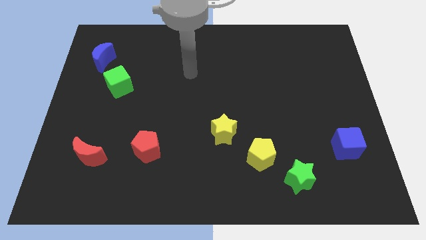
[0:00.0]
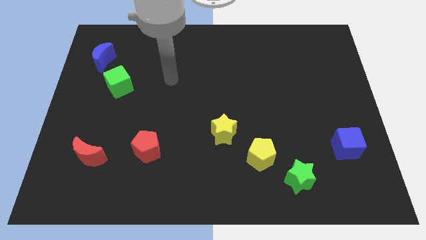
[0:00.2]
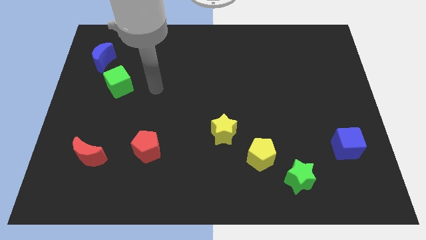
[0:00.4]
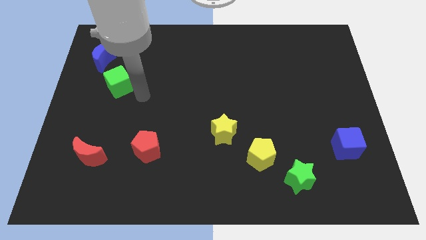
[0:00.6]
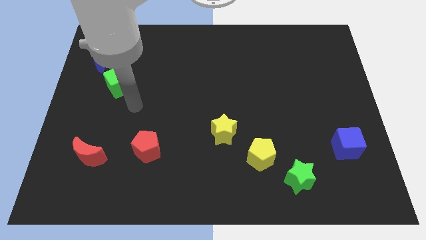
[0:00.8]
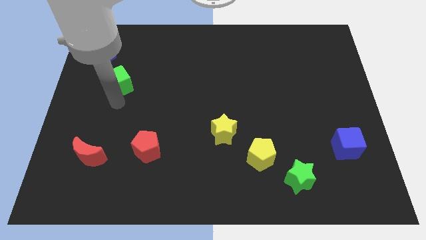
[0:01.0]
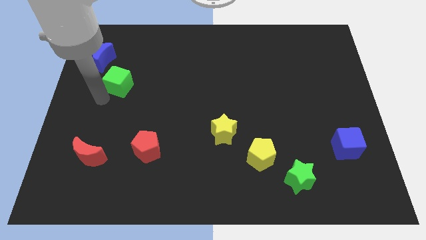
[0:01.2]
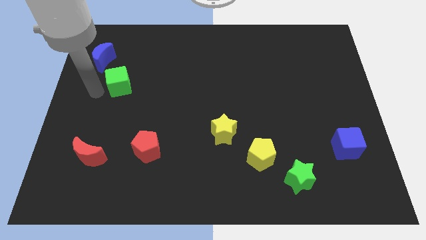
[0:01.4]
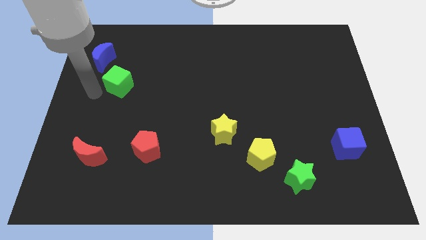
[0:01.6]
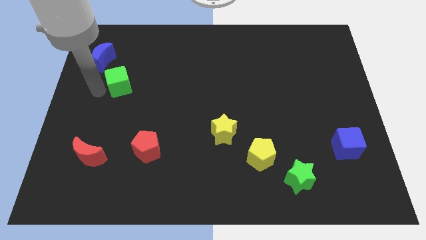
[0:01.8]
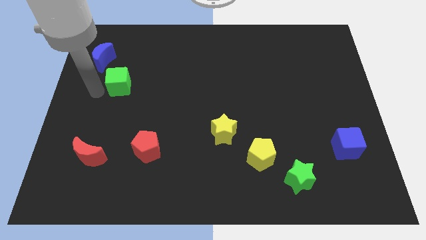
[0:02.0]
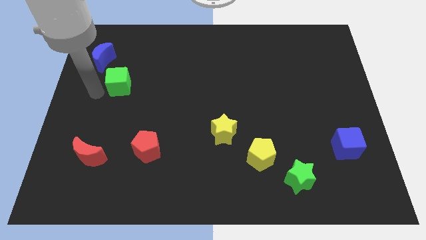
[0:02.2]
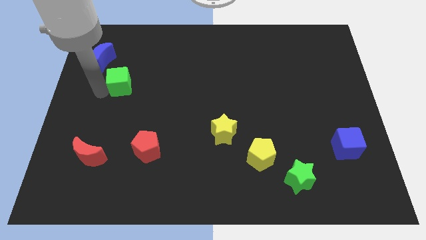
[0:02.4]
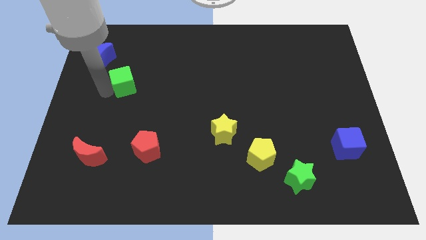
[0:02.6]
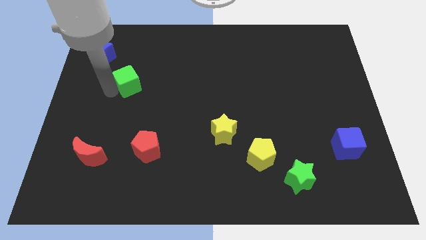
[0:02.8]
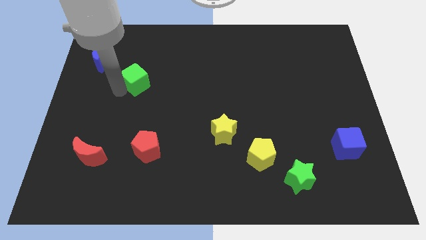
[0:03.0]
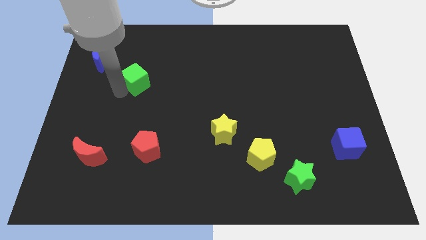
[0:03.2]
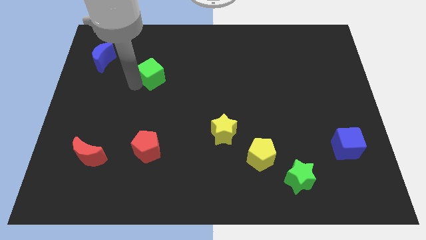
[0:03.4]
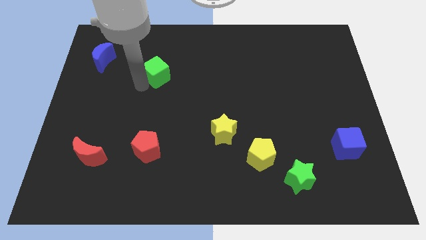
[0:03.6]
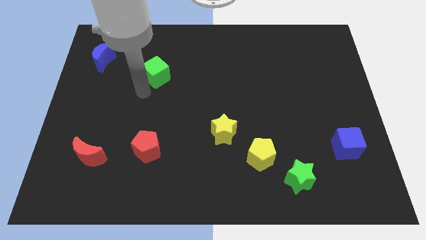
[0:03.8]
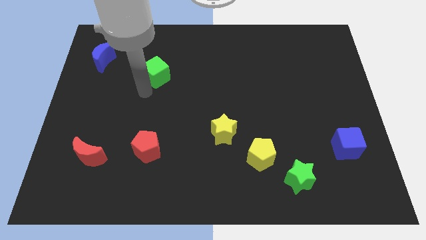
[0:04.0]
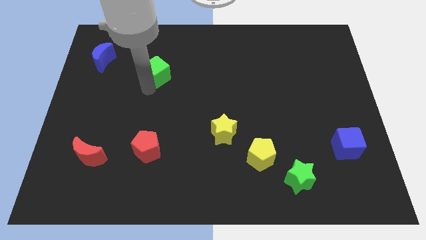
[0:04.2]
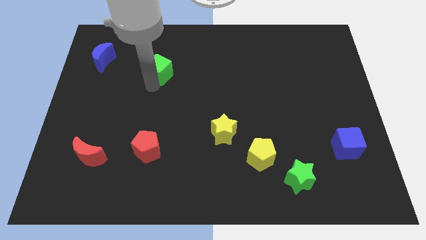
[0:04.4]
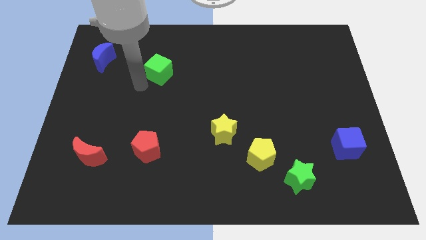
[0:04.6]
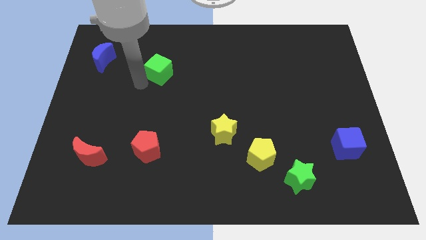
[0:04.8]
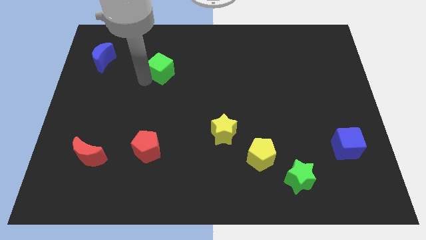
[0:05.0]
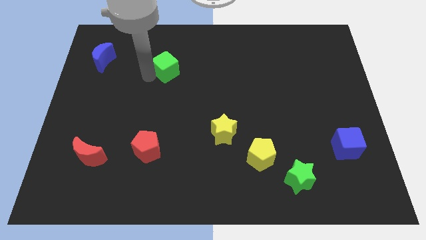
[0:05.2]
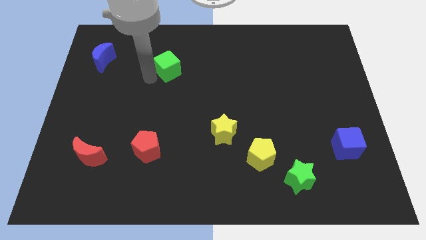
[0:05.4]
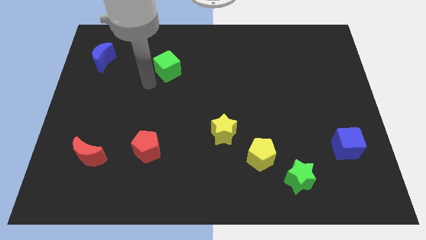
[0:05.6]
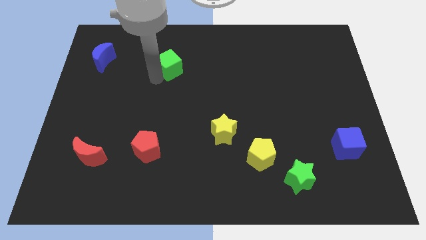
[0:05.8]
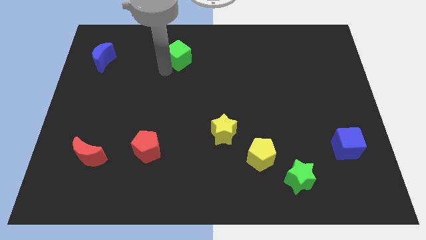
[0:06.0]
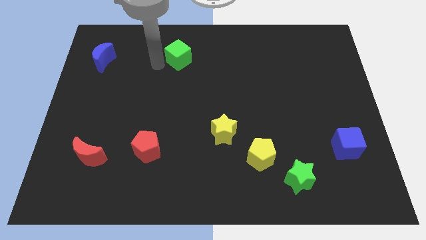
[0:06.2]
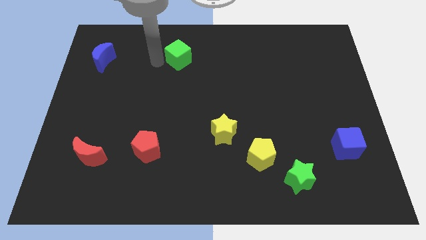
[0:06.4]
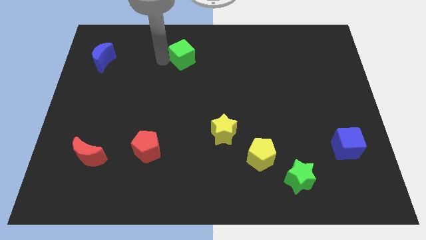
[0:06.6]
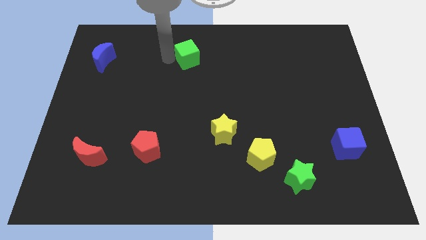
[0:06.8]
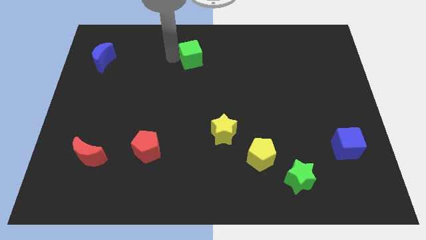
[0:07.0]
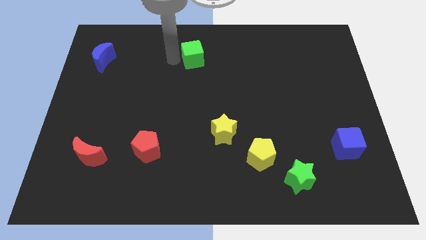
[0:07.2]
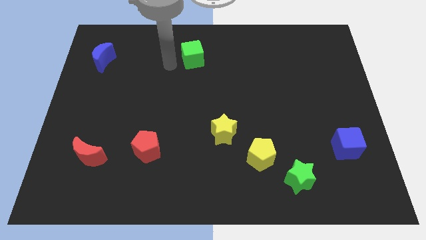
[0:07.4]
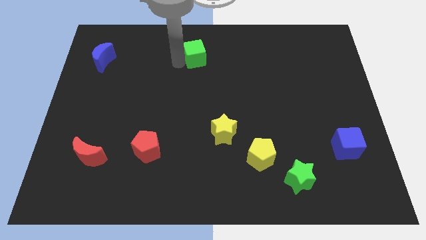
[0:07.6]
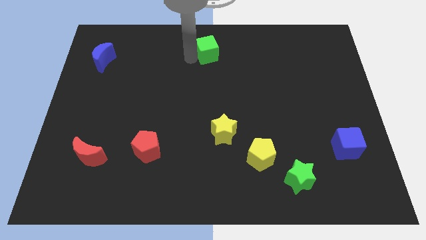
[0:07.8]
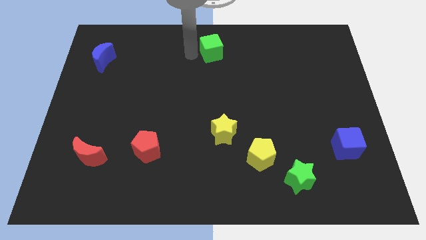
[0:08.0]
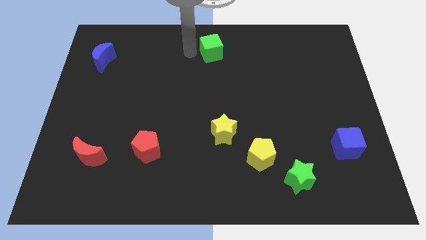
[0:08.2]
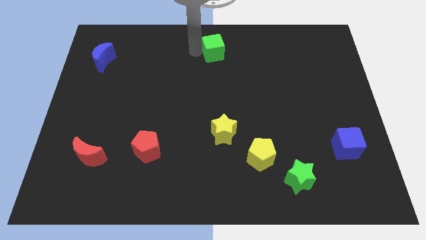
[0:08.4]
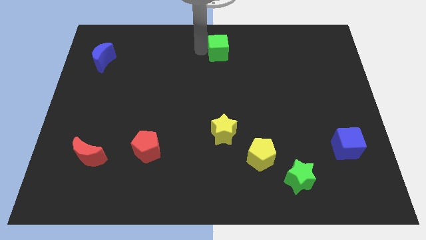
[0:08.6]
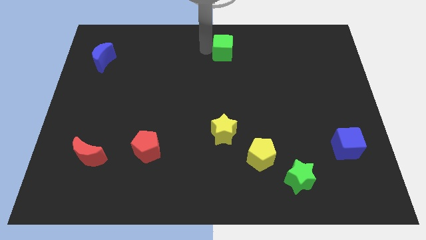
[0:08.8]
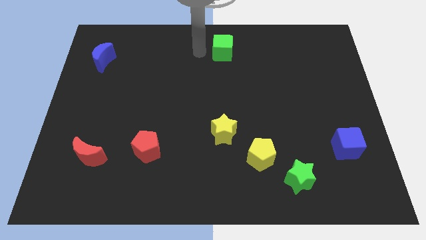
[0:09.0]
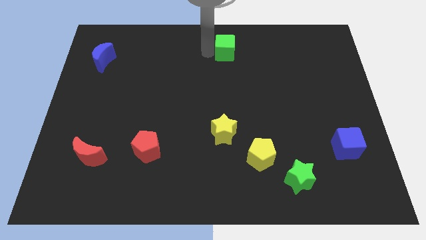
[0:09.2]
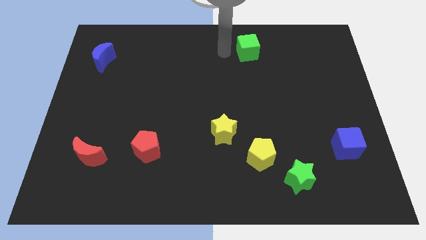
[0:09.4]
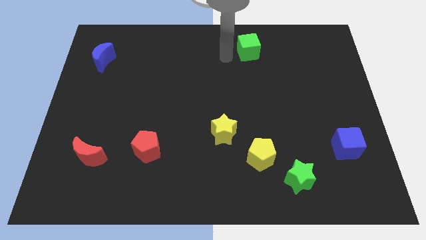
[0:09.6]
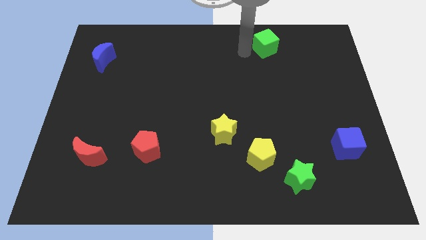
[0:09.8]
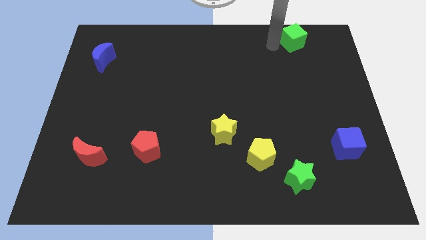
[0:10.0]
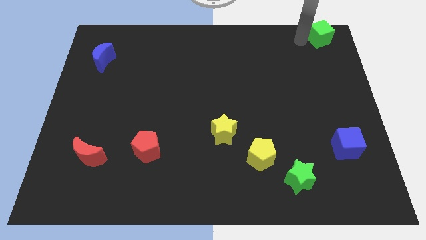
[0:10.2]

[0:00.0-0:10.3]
move the green cube to the top right of the board

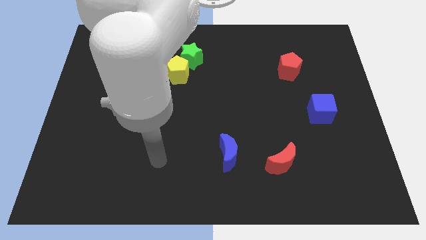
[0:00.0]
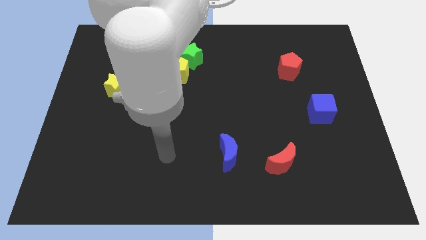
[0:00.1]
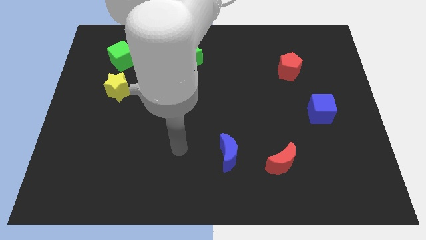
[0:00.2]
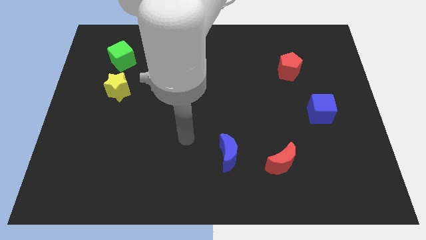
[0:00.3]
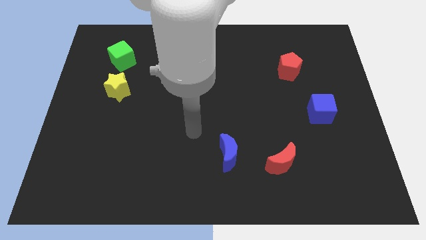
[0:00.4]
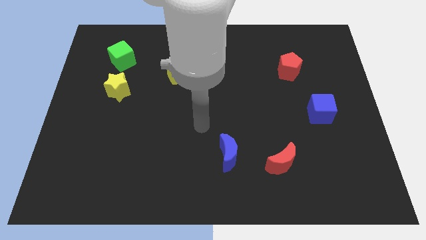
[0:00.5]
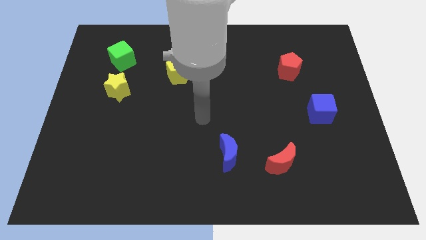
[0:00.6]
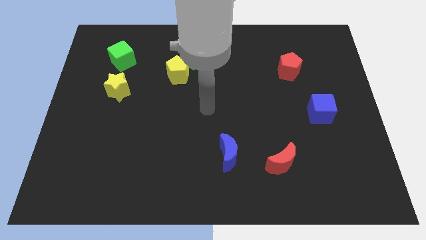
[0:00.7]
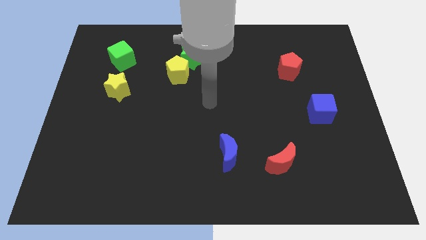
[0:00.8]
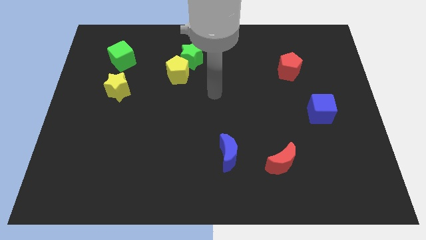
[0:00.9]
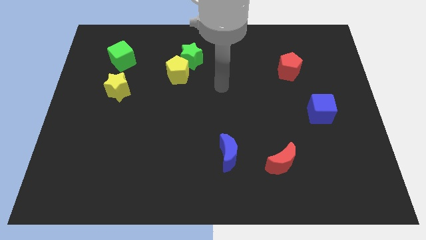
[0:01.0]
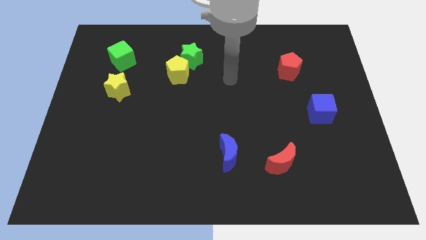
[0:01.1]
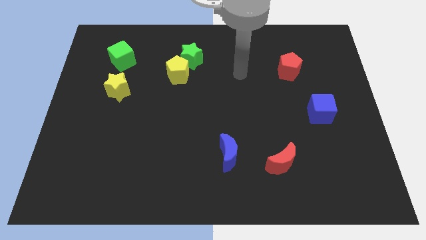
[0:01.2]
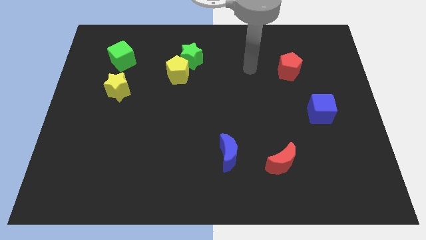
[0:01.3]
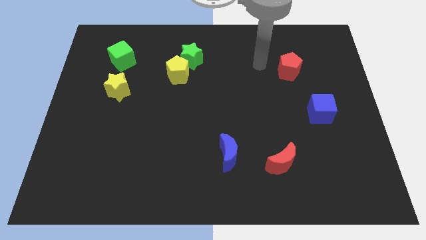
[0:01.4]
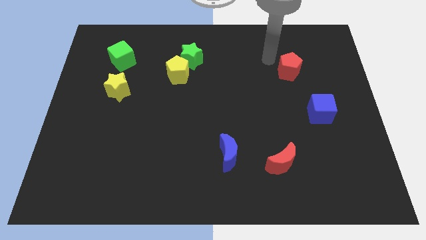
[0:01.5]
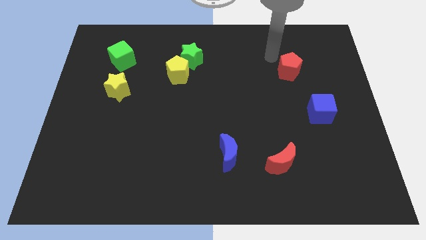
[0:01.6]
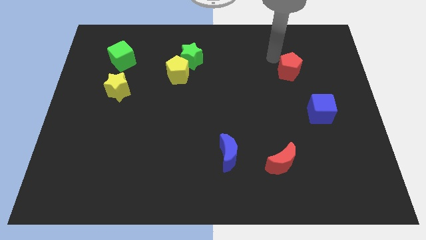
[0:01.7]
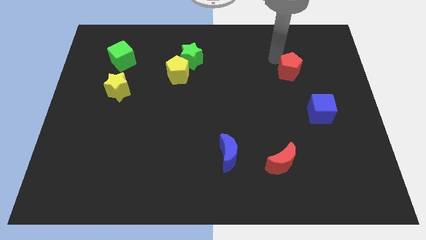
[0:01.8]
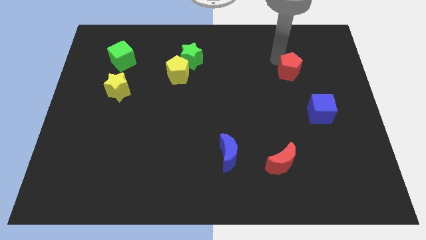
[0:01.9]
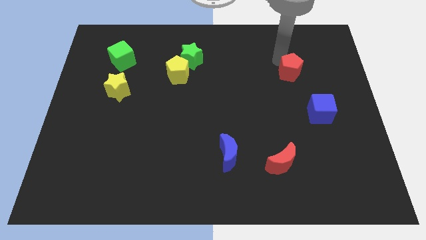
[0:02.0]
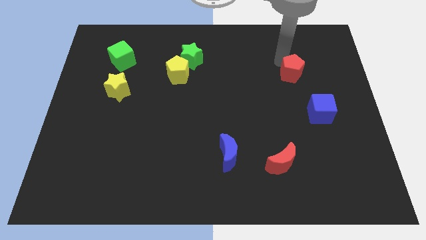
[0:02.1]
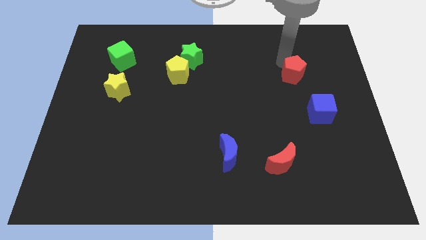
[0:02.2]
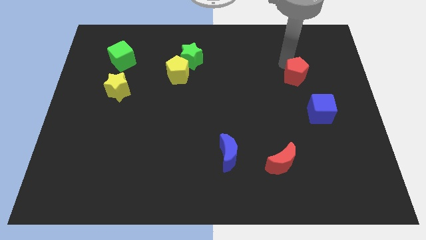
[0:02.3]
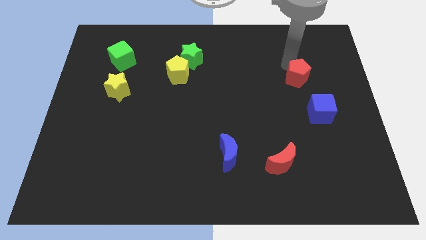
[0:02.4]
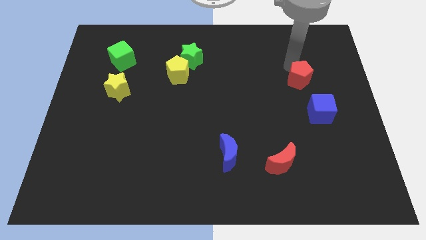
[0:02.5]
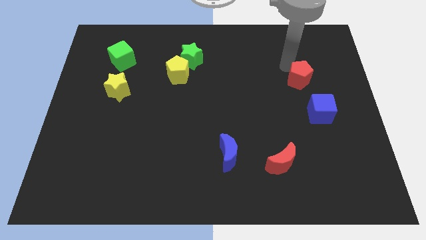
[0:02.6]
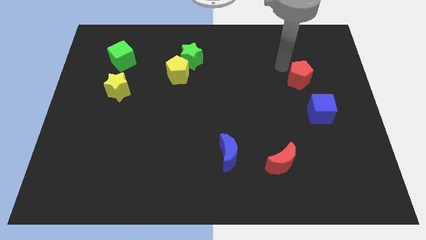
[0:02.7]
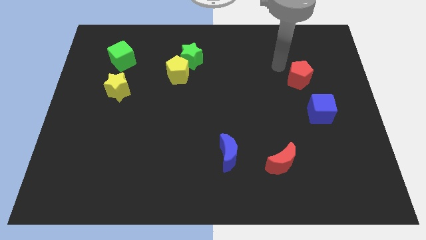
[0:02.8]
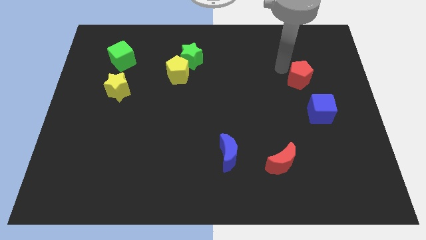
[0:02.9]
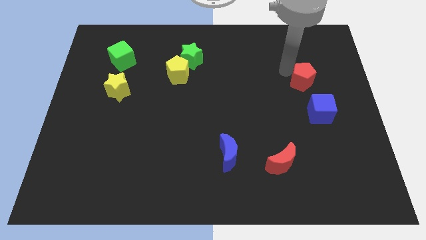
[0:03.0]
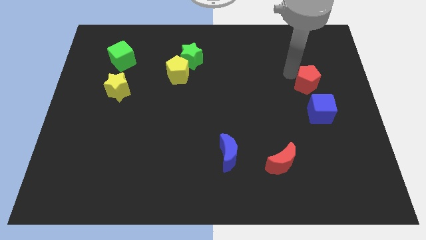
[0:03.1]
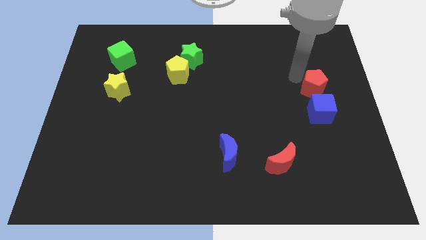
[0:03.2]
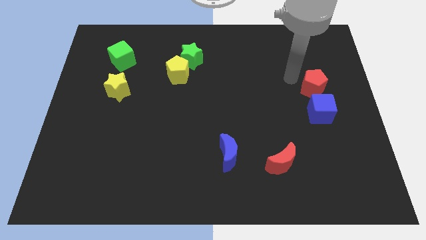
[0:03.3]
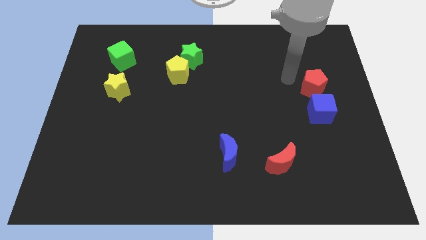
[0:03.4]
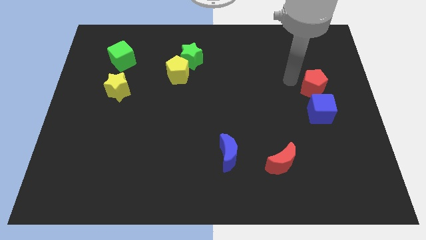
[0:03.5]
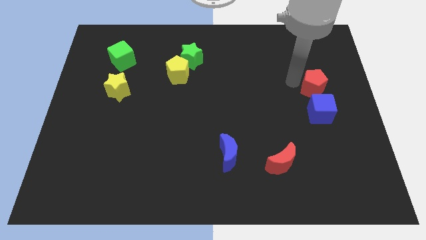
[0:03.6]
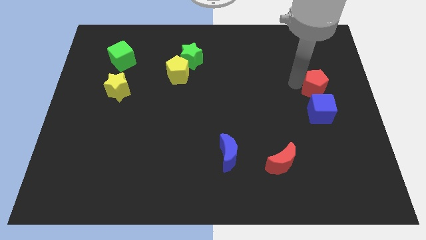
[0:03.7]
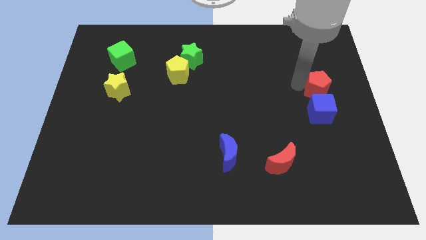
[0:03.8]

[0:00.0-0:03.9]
put the red pentagon to the right side
